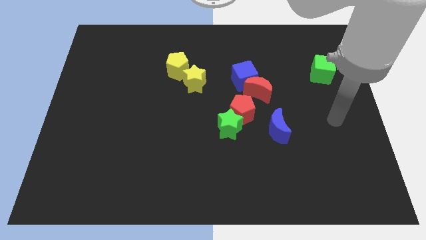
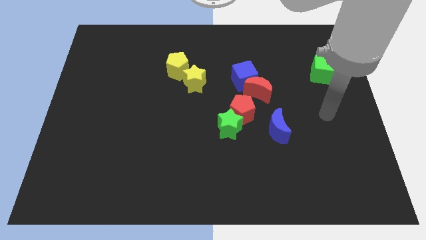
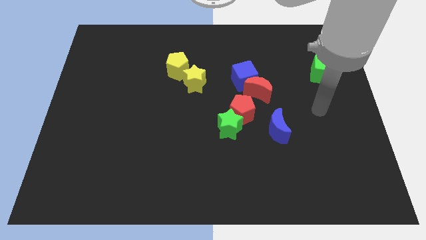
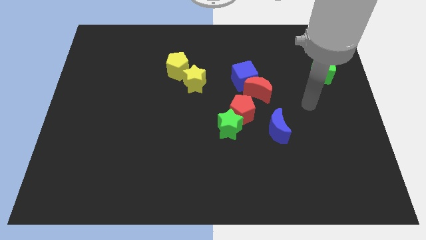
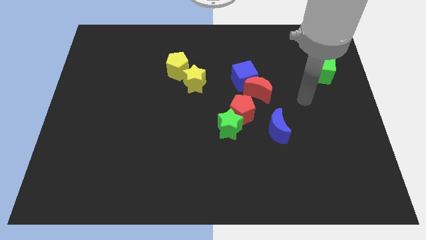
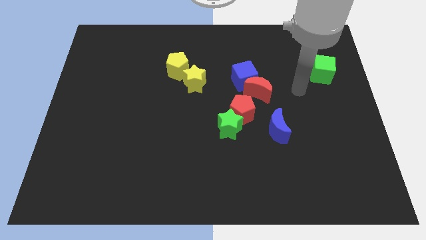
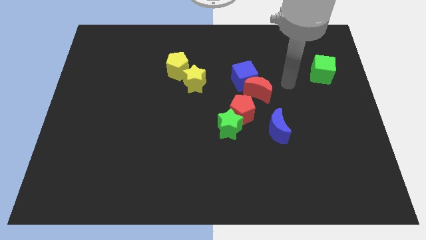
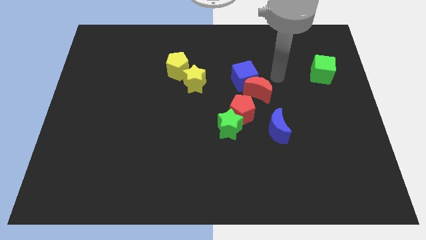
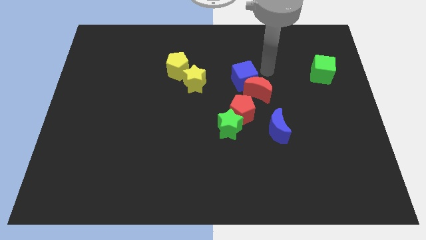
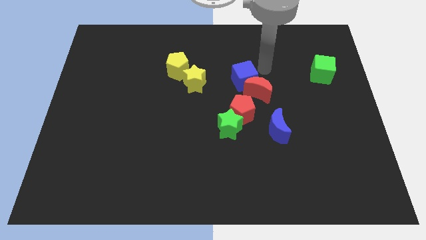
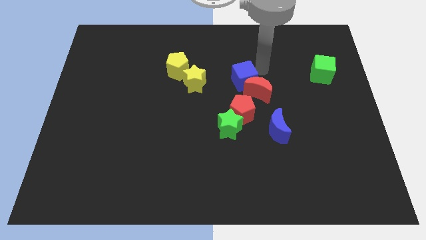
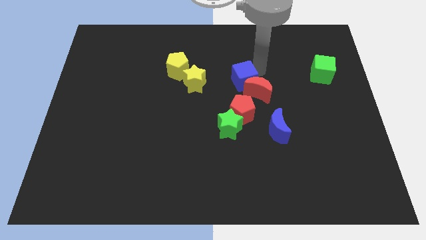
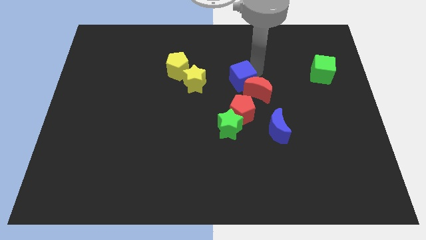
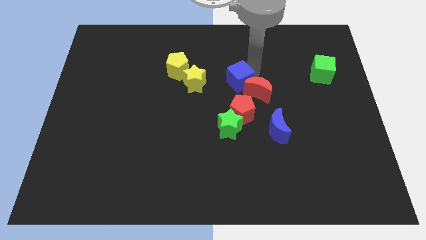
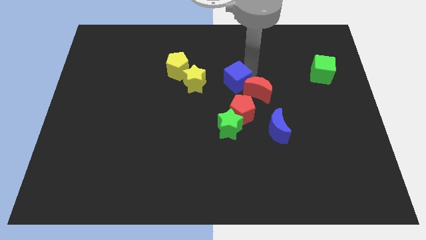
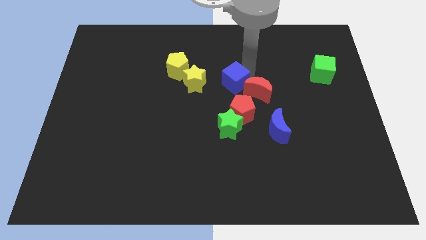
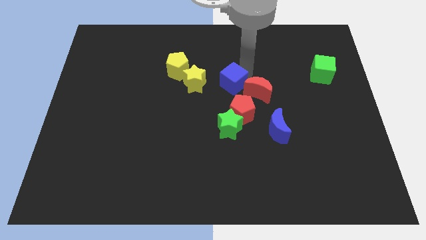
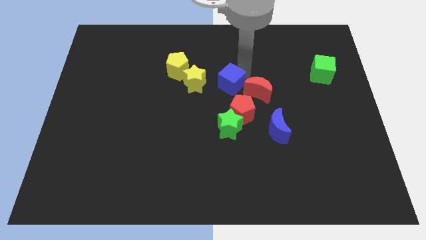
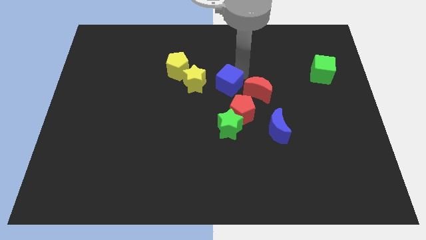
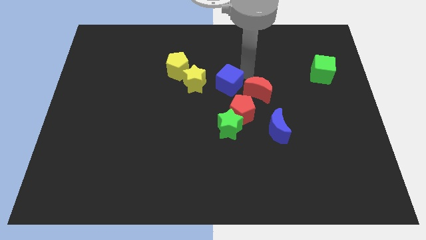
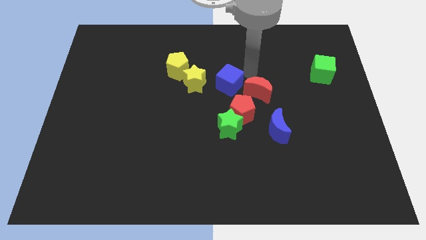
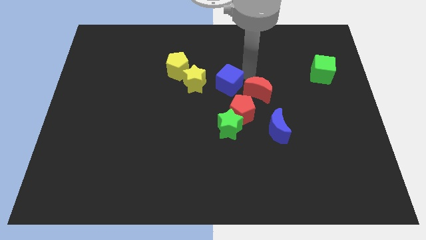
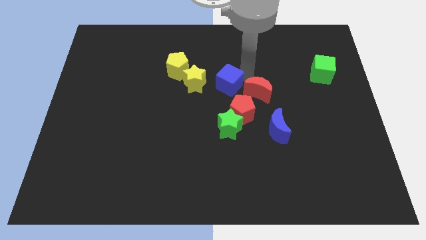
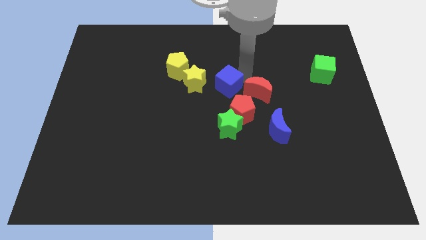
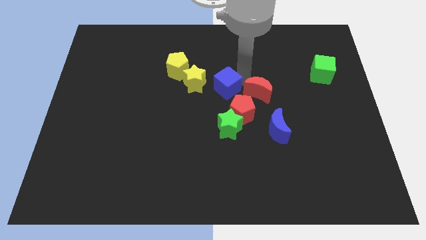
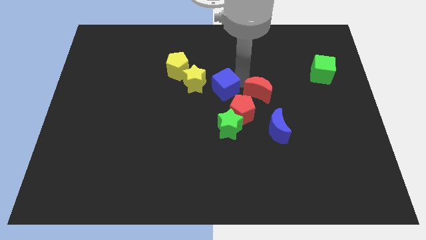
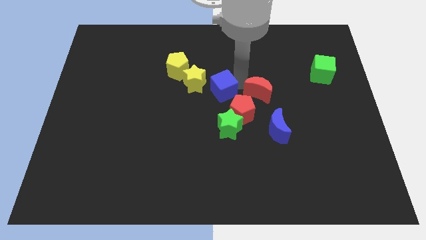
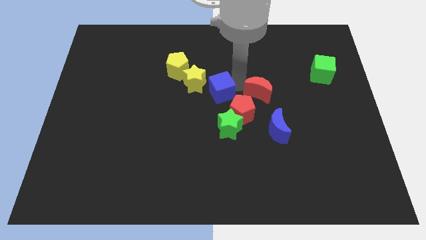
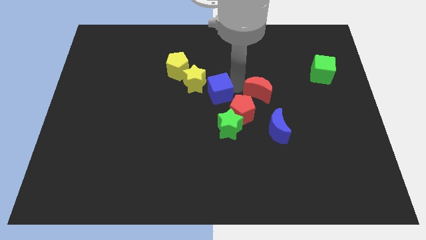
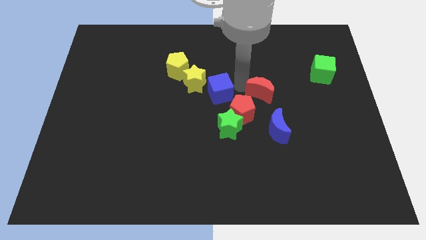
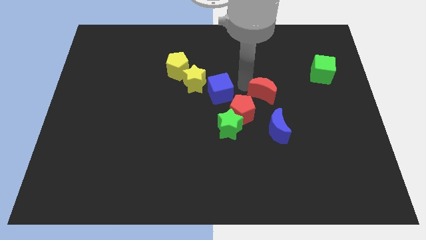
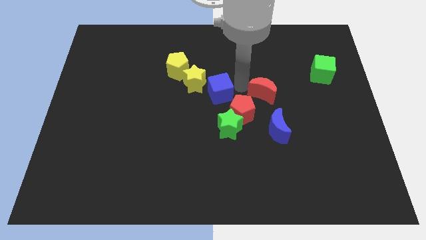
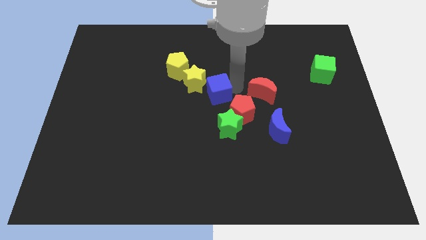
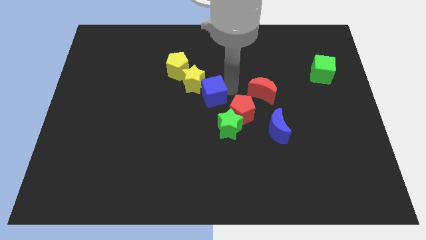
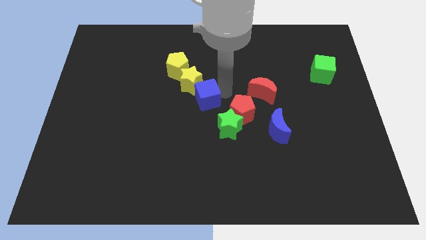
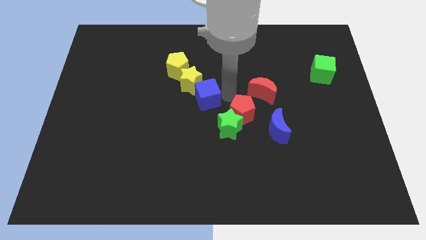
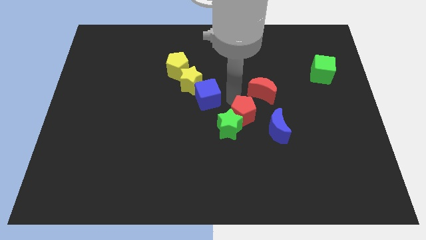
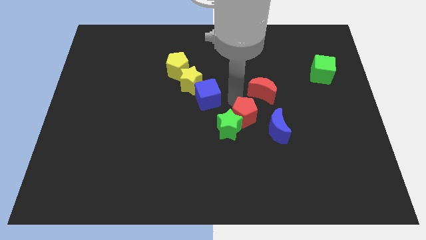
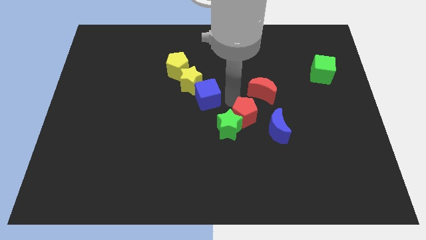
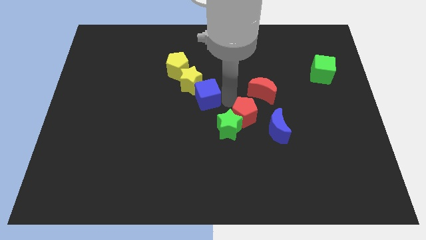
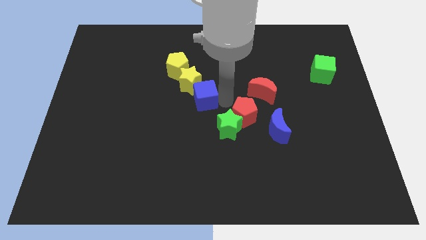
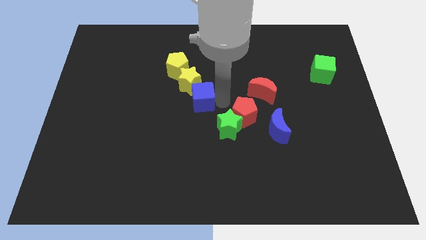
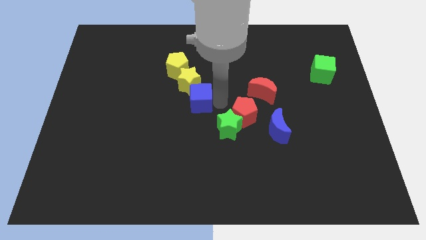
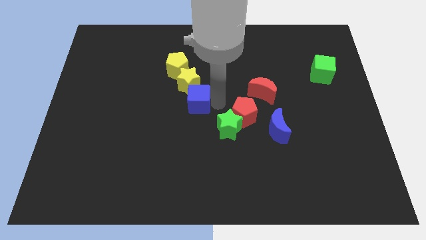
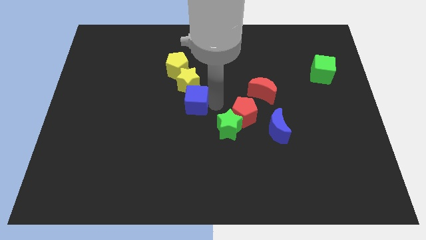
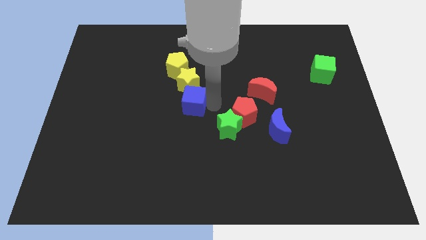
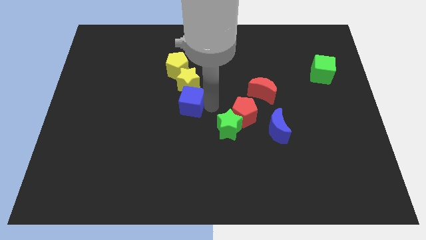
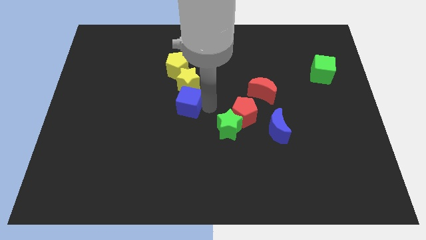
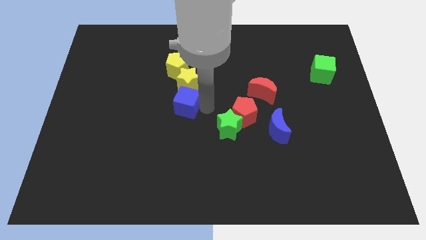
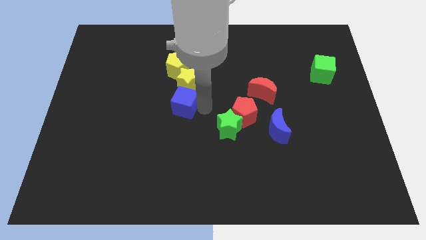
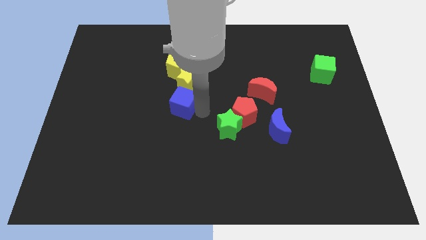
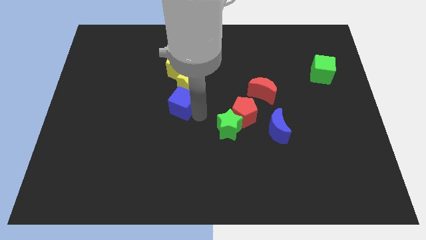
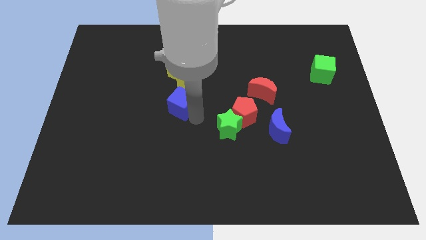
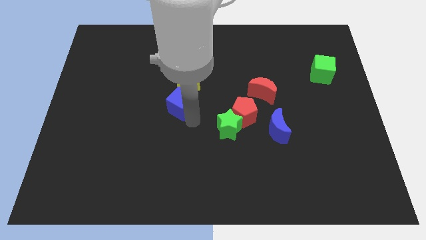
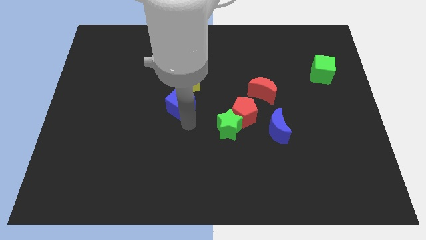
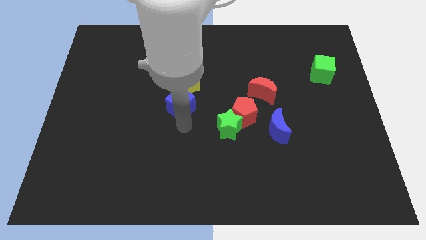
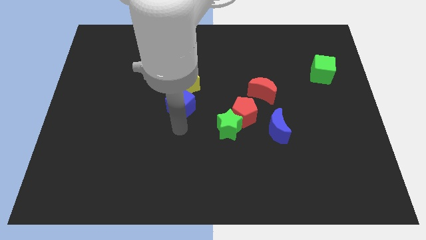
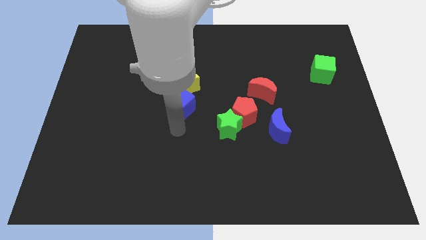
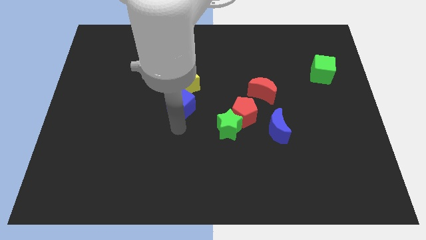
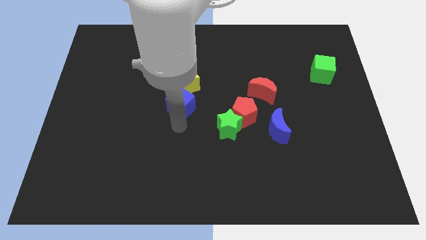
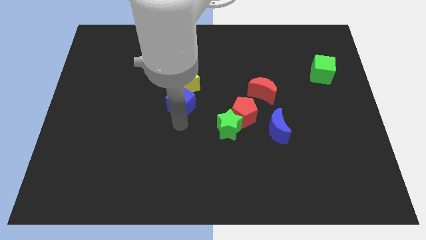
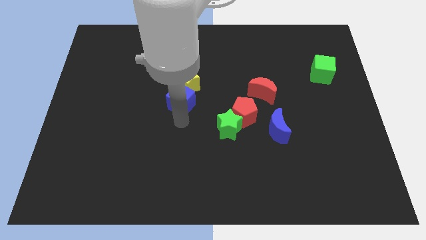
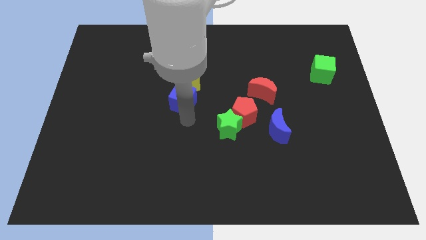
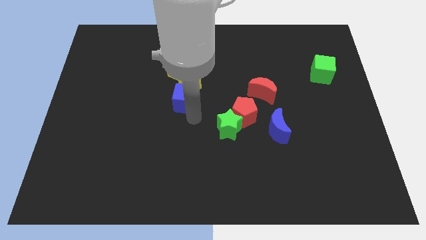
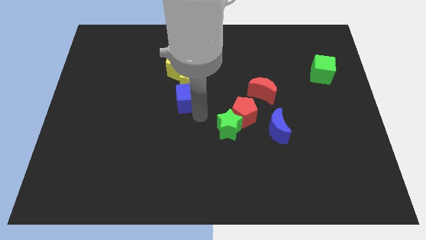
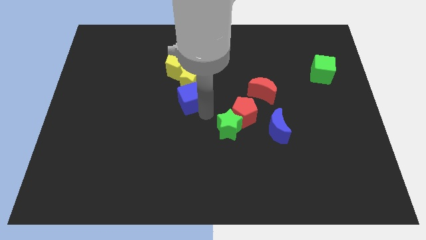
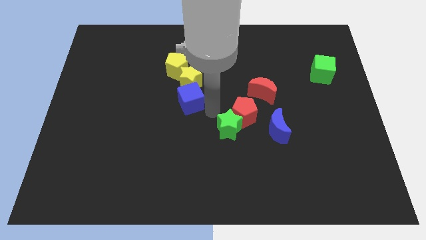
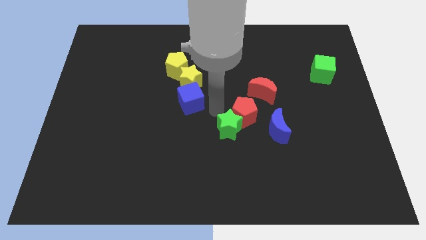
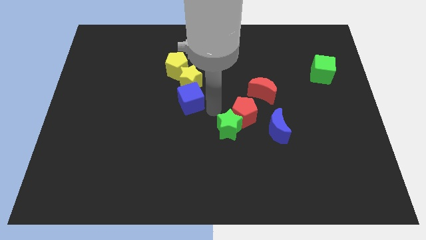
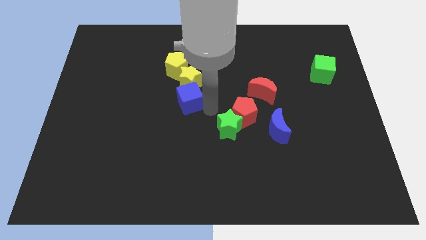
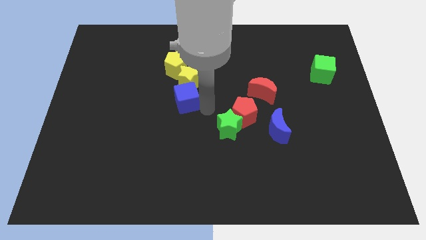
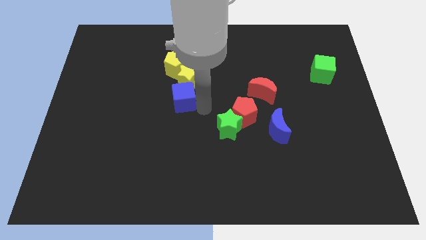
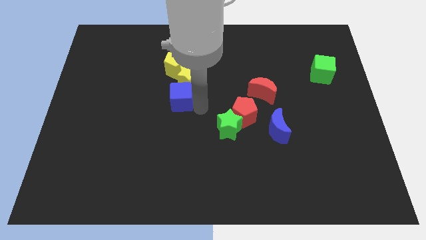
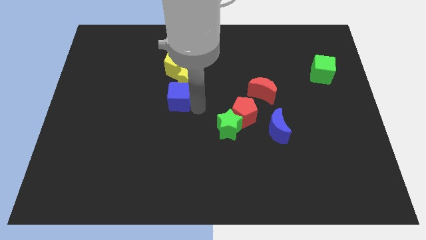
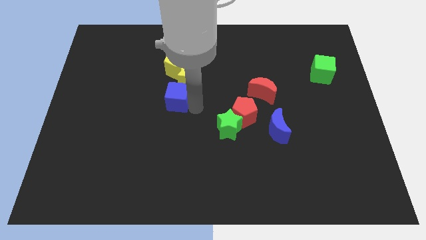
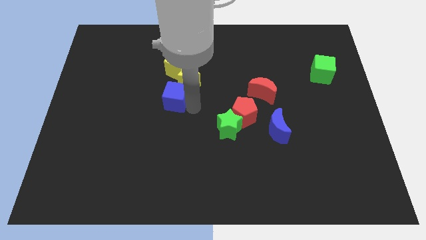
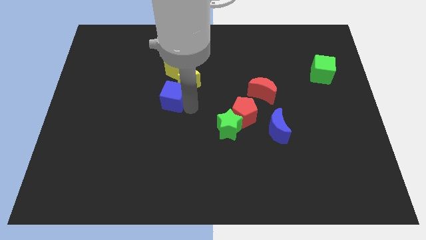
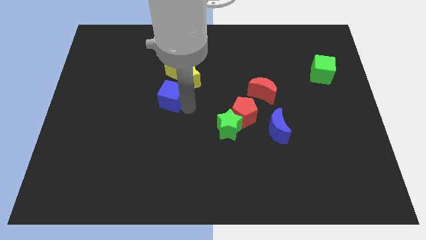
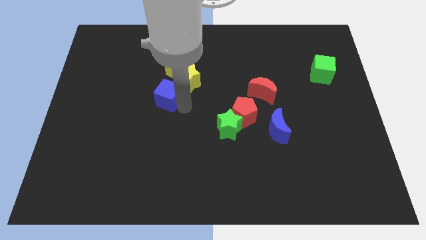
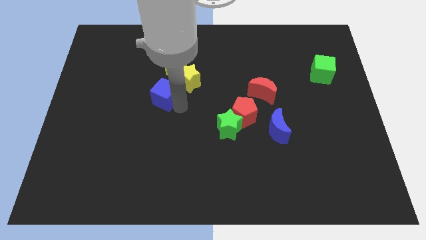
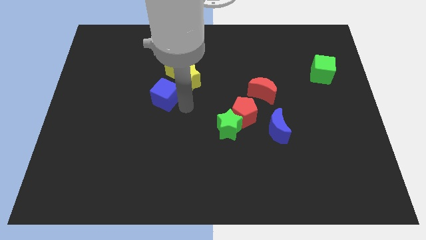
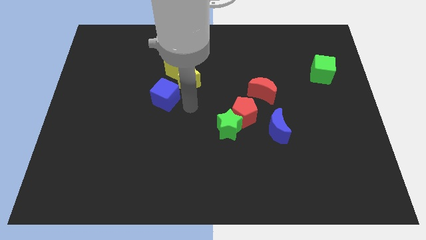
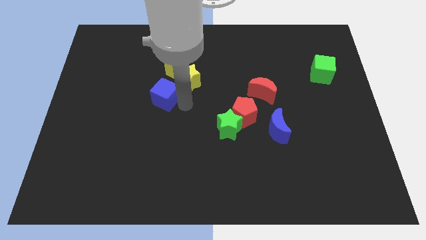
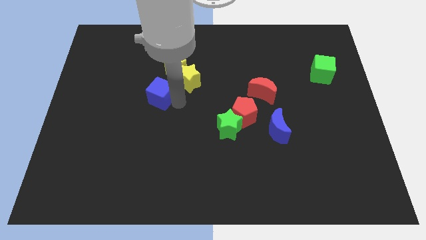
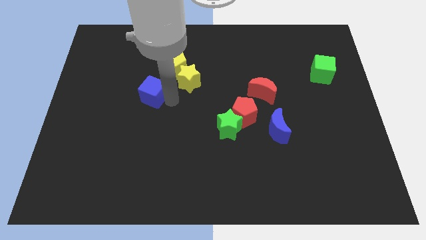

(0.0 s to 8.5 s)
move the blue cube to the left
